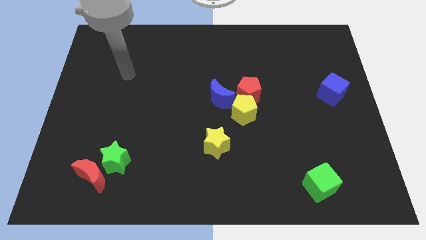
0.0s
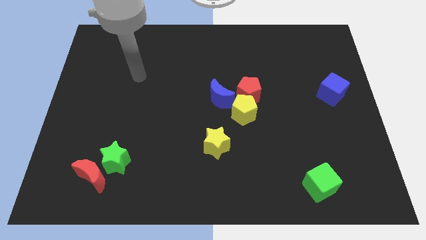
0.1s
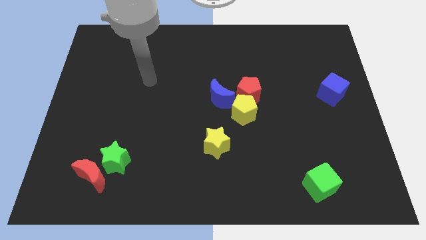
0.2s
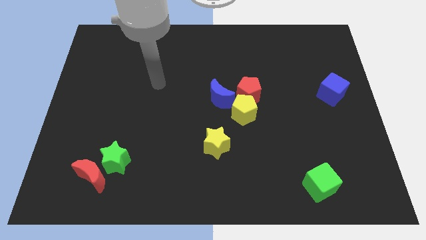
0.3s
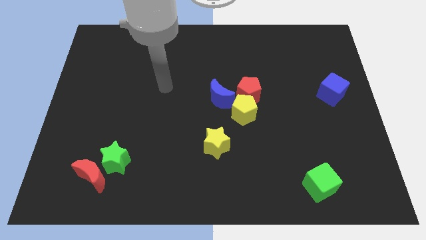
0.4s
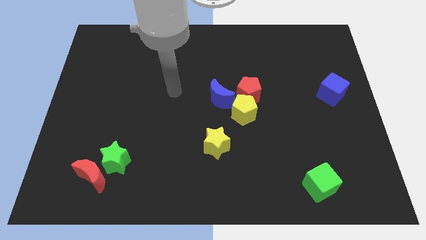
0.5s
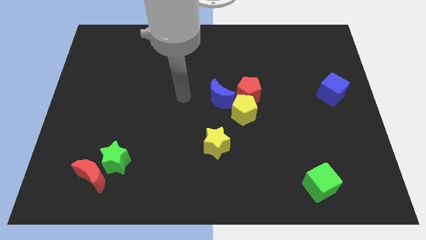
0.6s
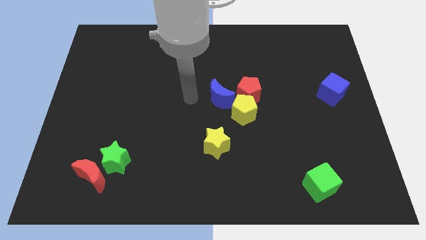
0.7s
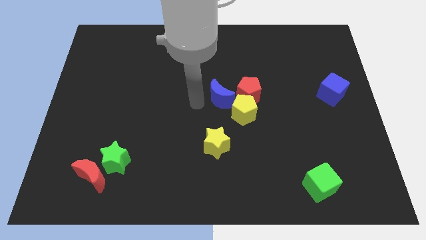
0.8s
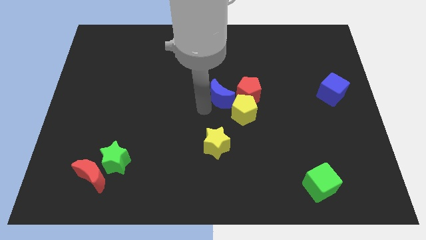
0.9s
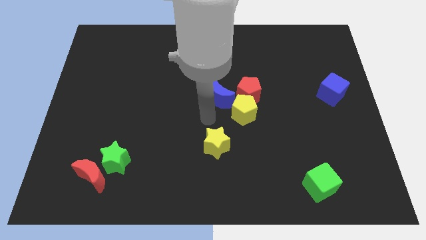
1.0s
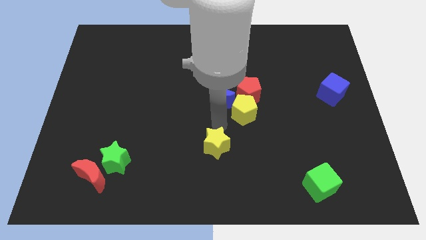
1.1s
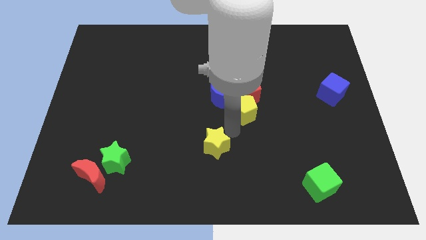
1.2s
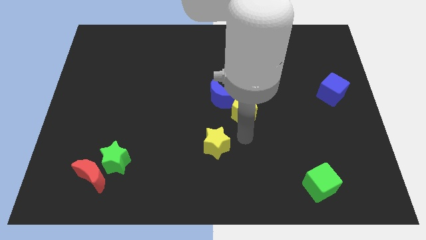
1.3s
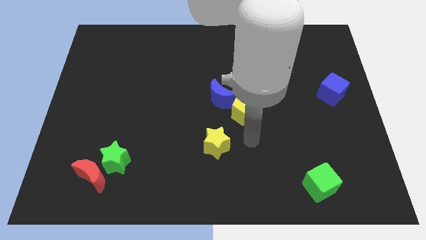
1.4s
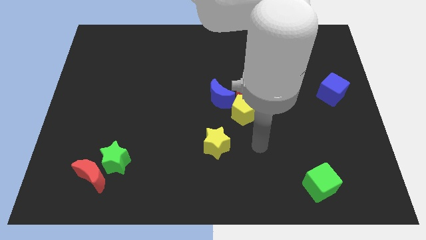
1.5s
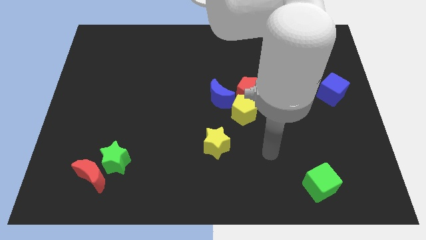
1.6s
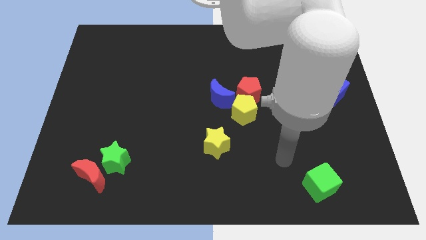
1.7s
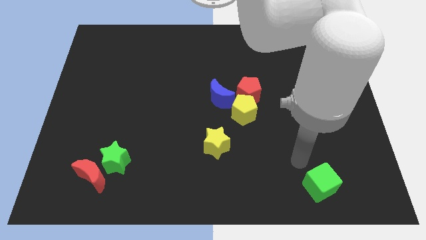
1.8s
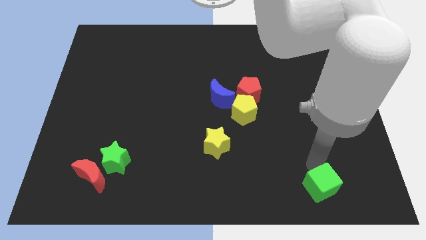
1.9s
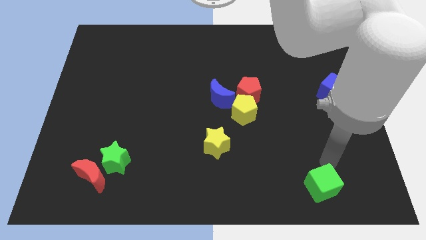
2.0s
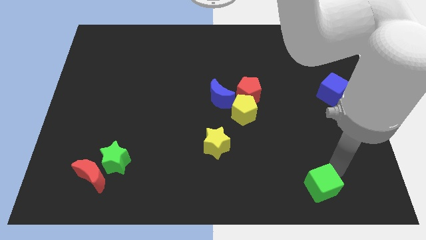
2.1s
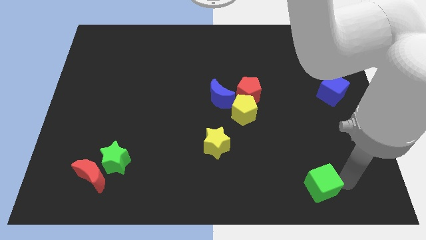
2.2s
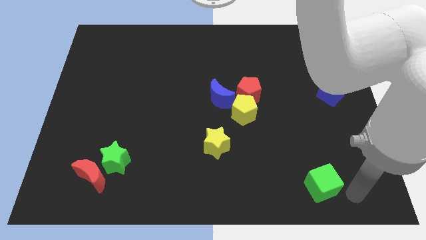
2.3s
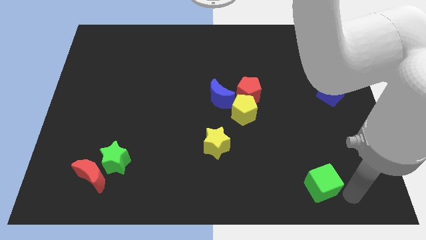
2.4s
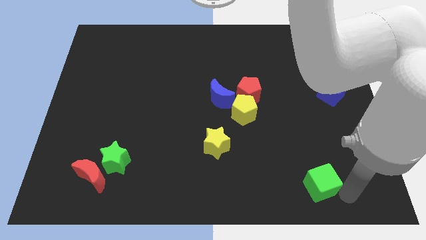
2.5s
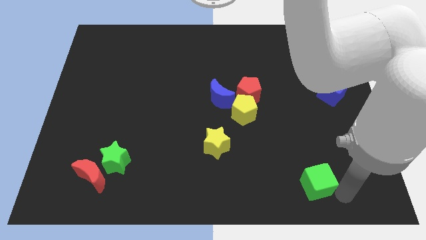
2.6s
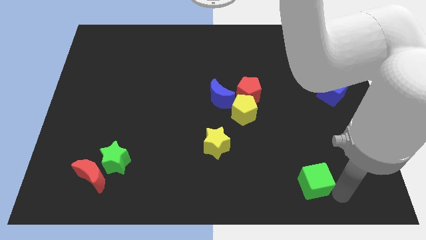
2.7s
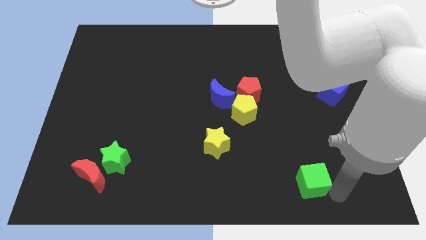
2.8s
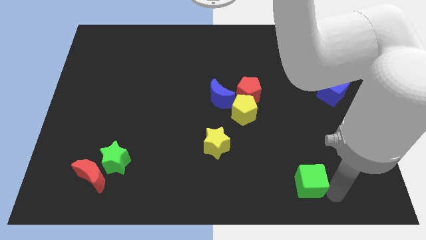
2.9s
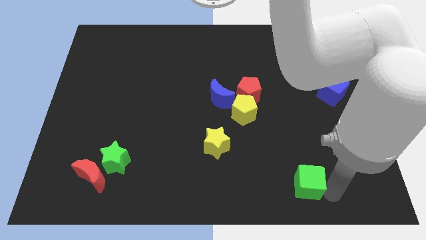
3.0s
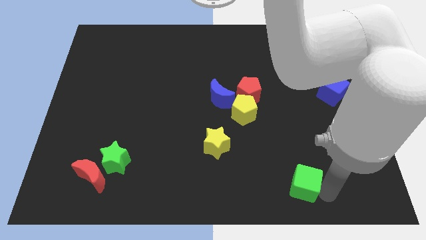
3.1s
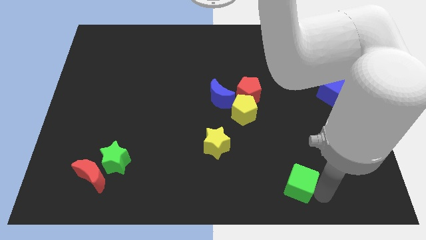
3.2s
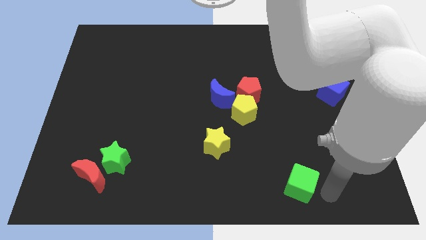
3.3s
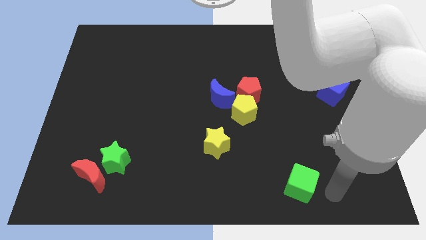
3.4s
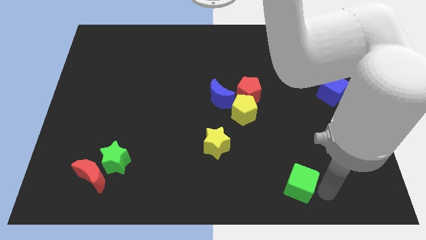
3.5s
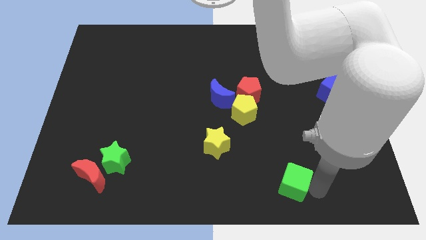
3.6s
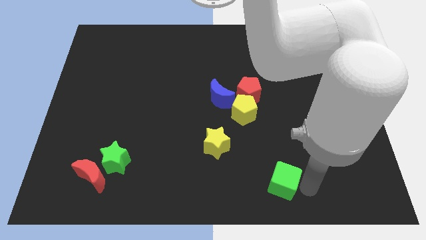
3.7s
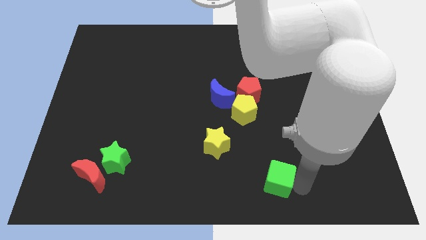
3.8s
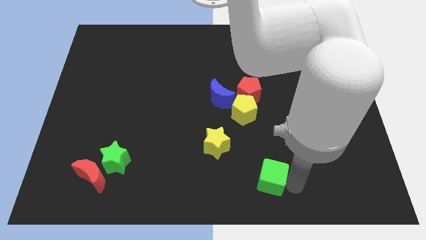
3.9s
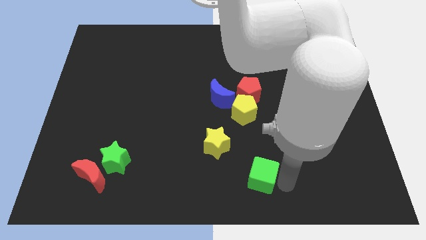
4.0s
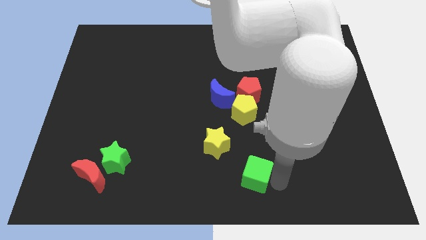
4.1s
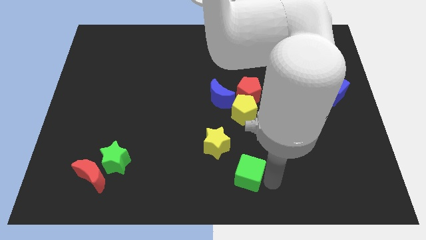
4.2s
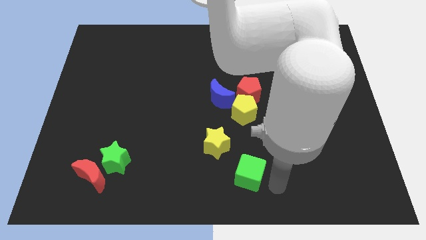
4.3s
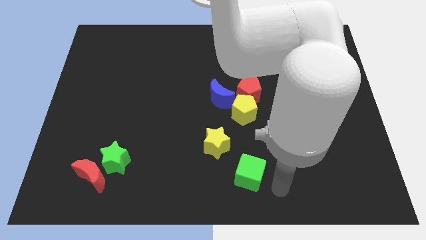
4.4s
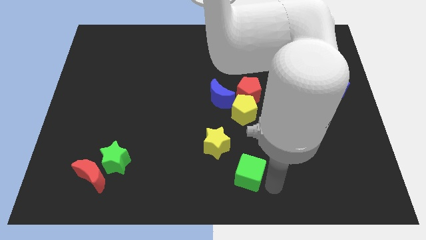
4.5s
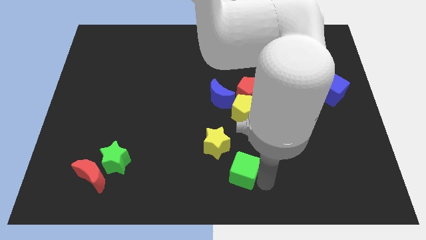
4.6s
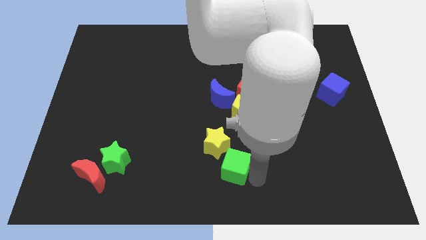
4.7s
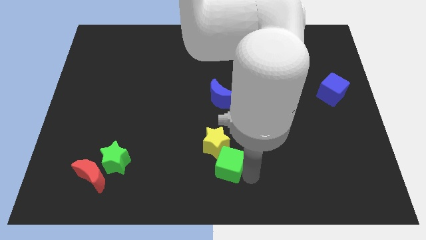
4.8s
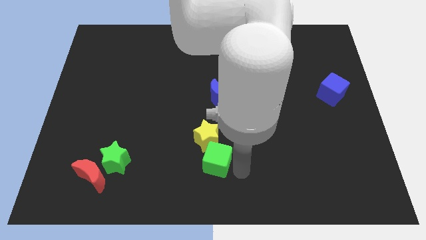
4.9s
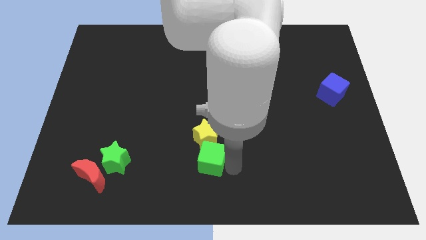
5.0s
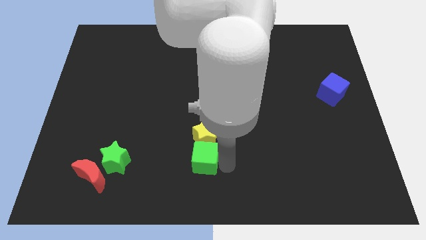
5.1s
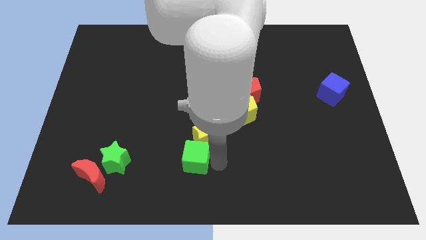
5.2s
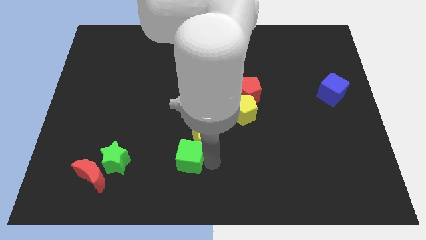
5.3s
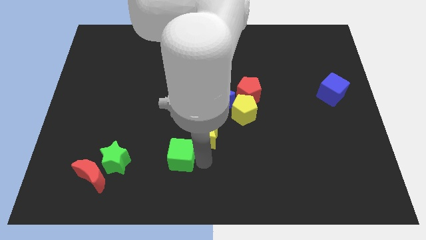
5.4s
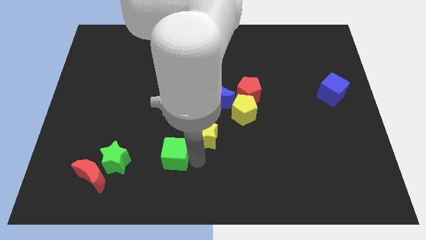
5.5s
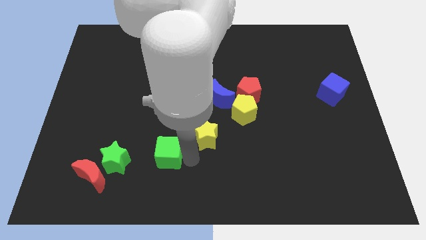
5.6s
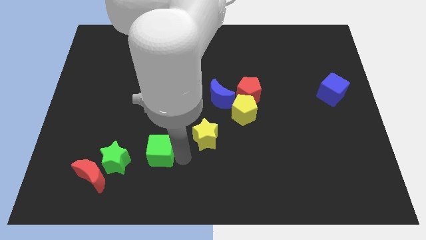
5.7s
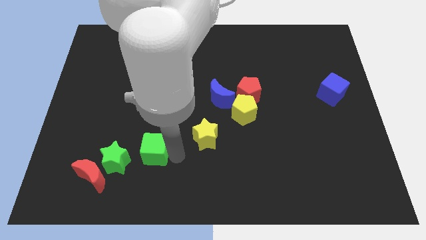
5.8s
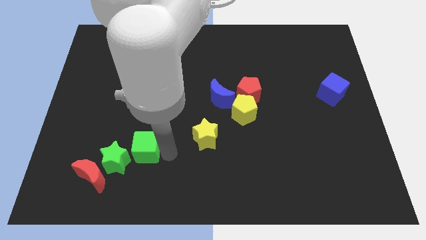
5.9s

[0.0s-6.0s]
move the green cube diagonally up and to the right of the red moon
